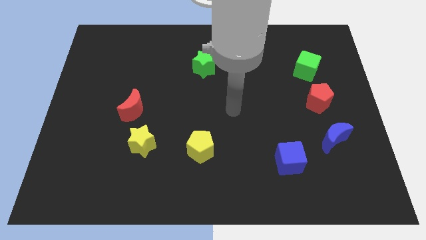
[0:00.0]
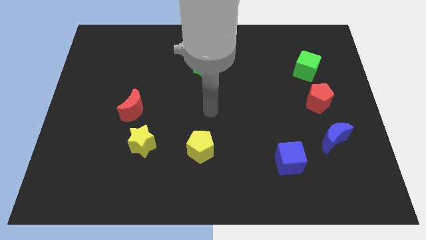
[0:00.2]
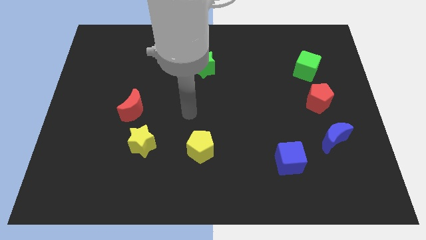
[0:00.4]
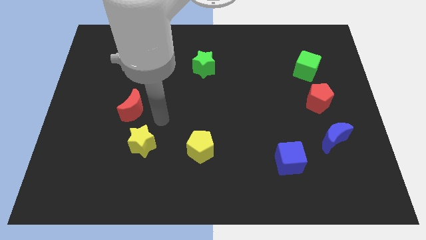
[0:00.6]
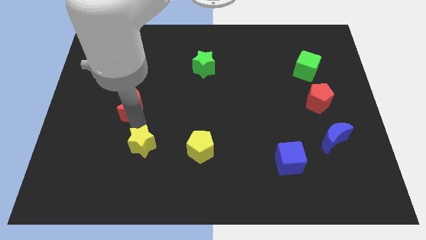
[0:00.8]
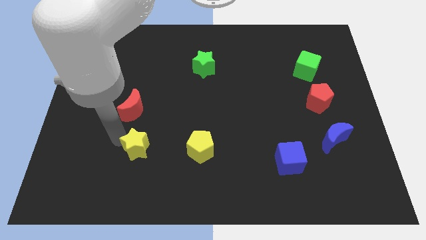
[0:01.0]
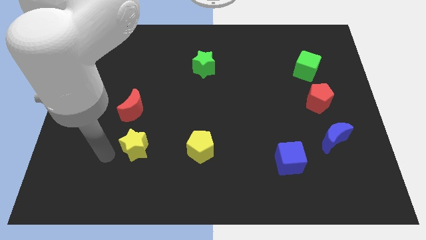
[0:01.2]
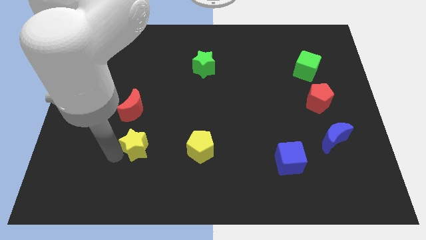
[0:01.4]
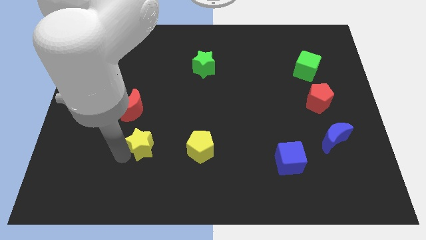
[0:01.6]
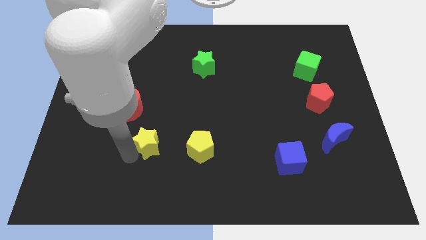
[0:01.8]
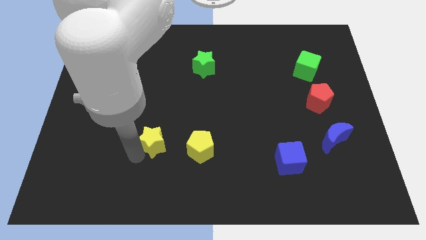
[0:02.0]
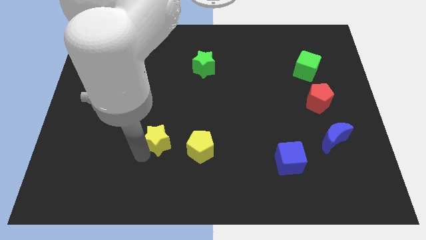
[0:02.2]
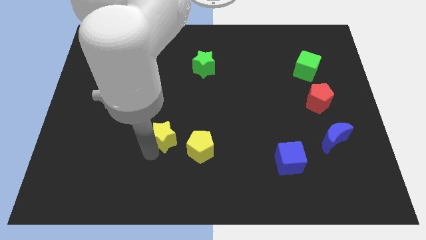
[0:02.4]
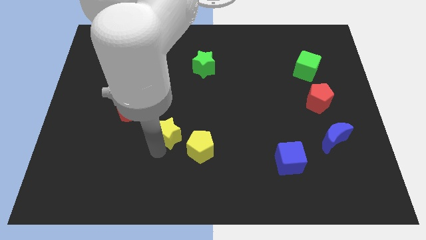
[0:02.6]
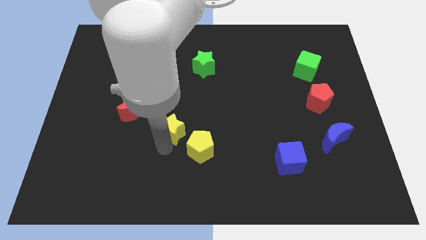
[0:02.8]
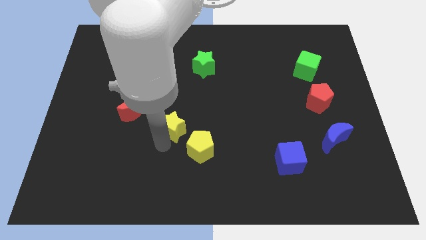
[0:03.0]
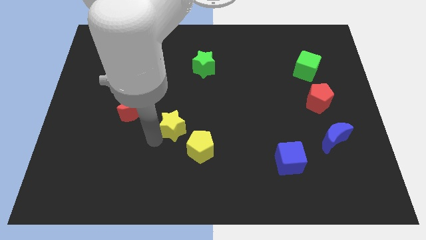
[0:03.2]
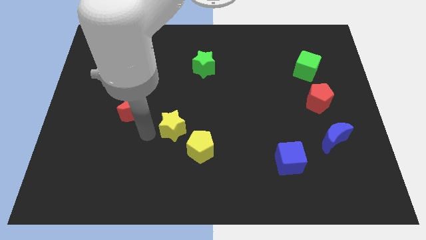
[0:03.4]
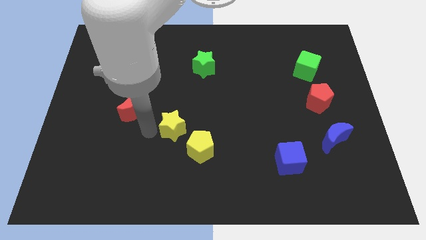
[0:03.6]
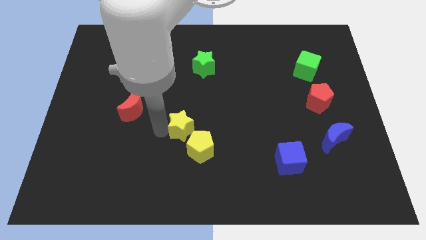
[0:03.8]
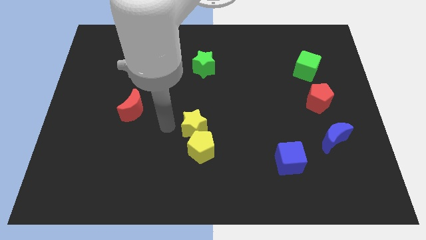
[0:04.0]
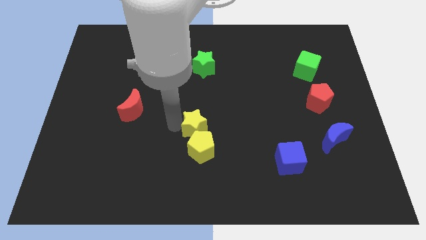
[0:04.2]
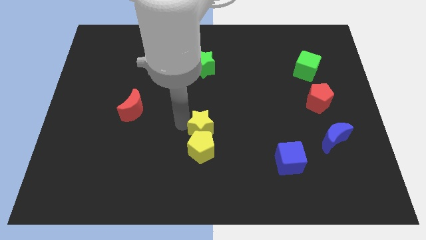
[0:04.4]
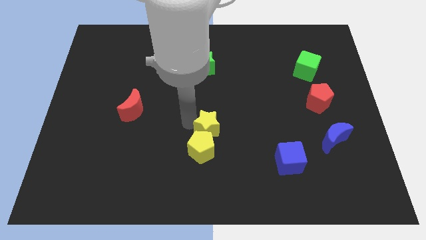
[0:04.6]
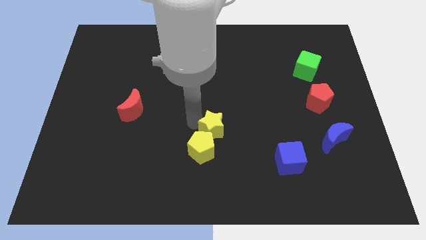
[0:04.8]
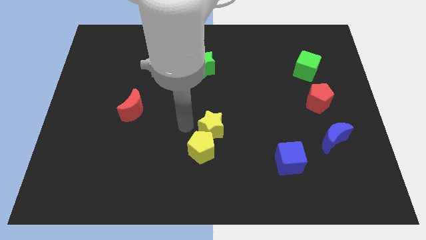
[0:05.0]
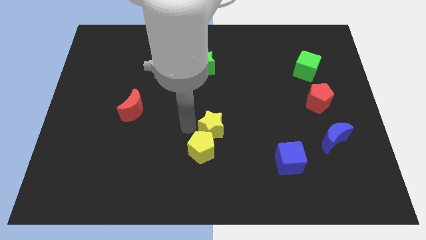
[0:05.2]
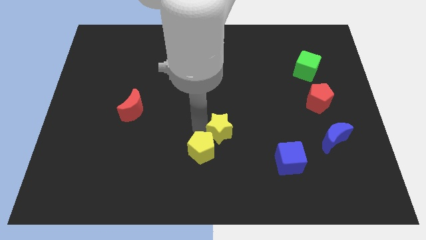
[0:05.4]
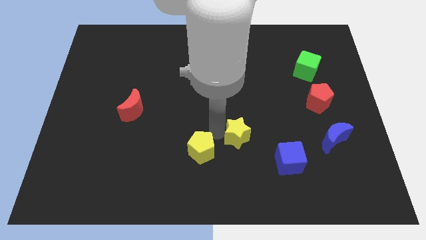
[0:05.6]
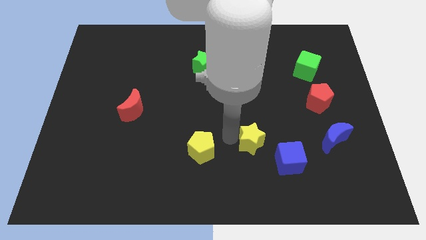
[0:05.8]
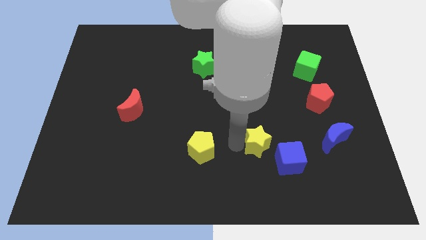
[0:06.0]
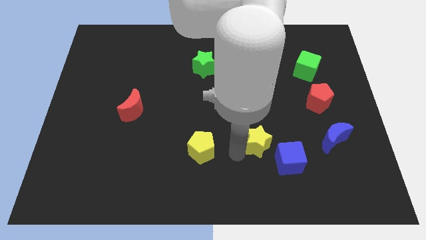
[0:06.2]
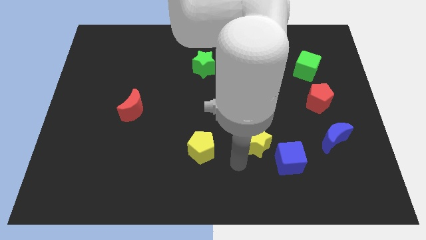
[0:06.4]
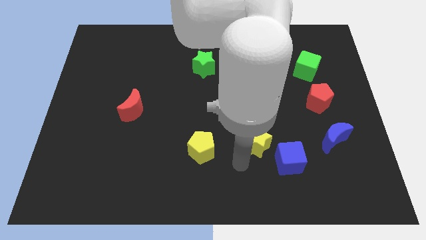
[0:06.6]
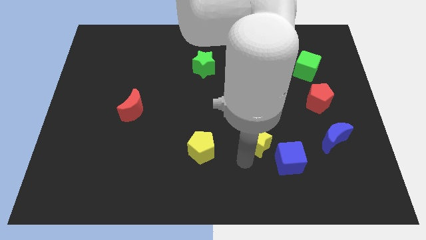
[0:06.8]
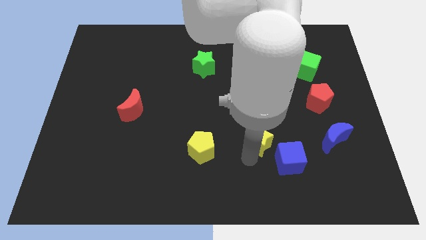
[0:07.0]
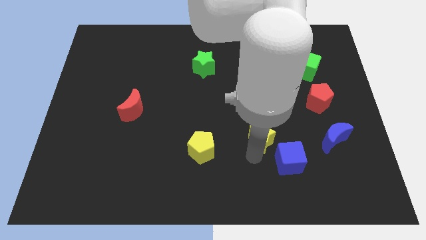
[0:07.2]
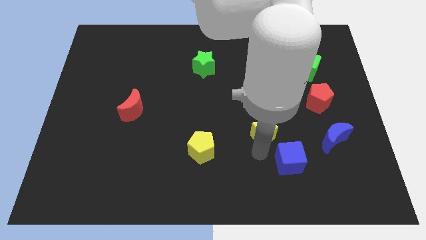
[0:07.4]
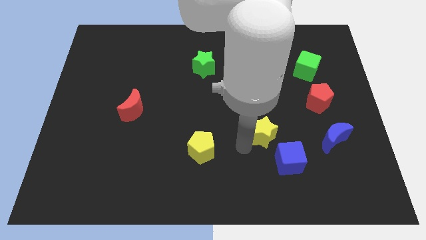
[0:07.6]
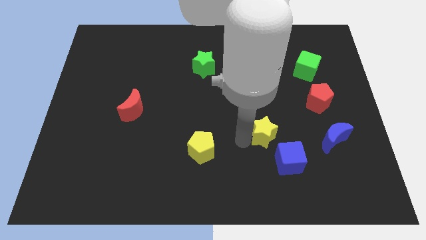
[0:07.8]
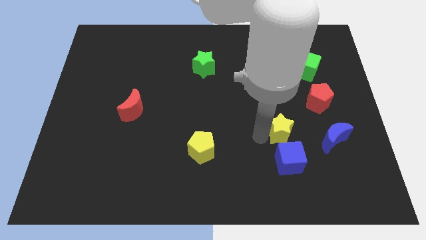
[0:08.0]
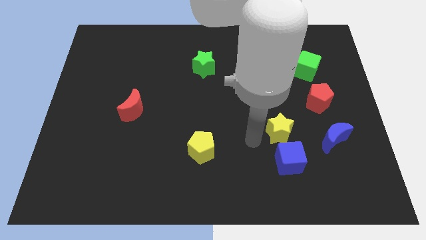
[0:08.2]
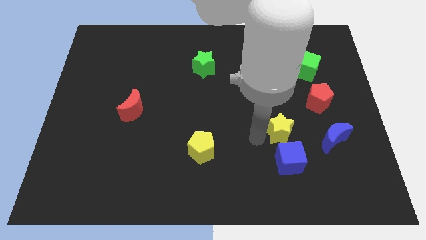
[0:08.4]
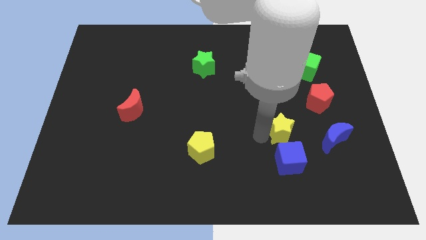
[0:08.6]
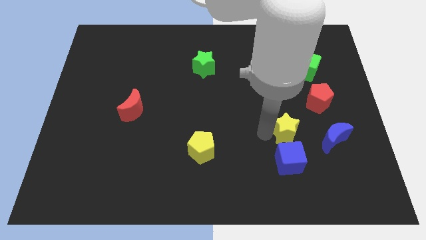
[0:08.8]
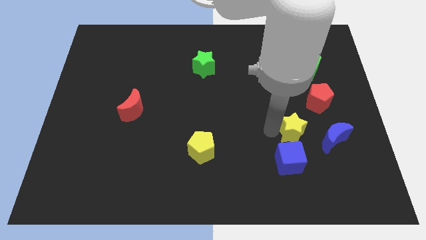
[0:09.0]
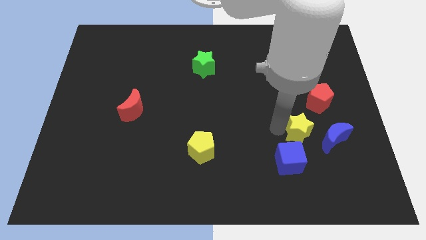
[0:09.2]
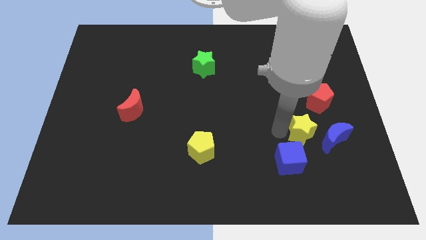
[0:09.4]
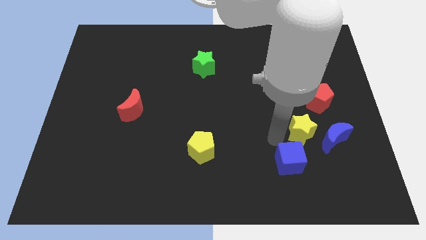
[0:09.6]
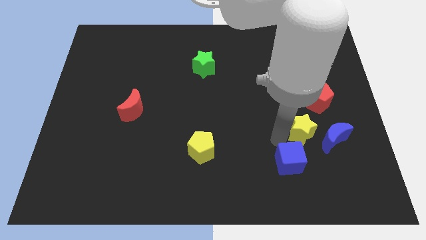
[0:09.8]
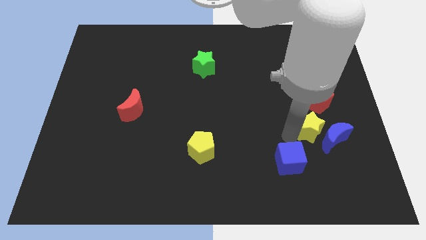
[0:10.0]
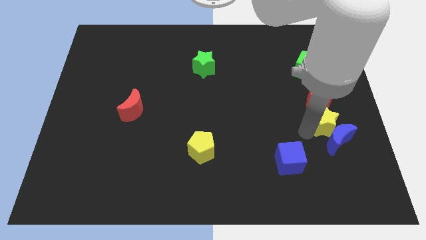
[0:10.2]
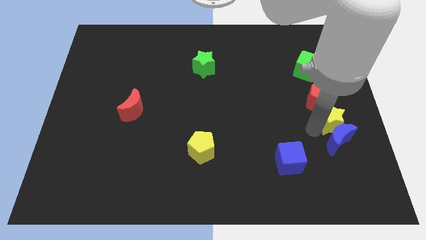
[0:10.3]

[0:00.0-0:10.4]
push the yellow star to the center right

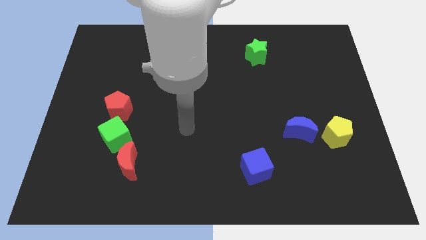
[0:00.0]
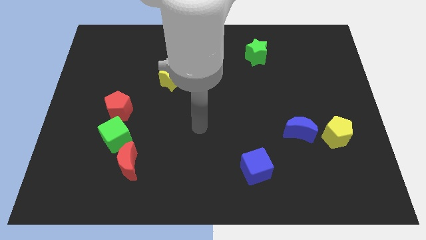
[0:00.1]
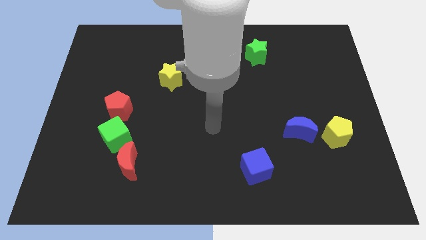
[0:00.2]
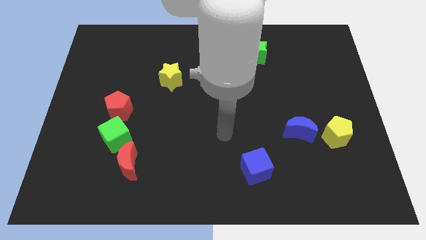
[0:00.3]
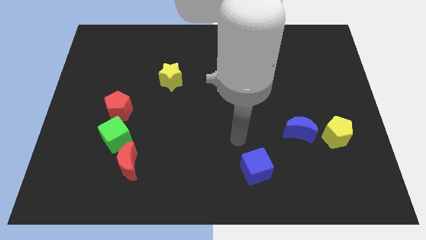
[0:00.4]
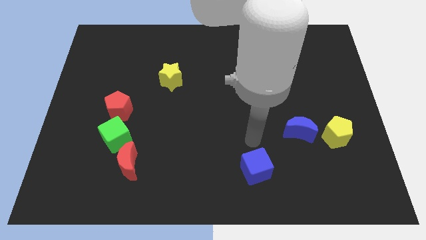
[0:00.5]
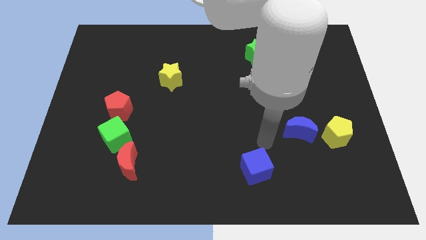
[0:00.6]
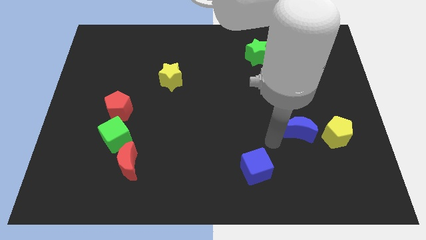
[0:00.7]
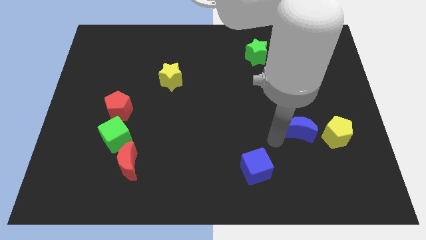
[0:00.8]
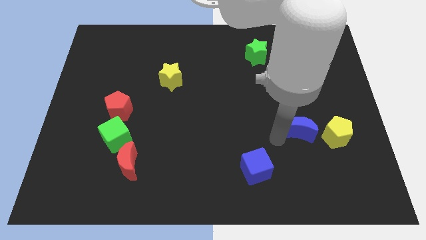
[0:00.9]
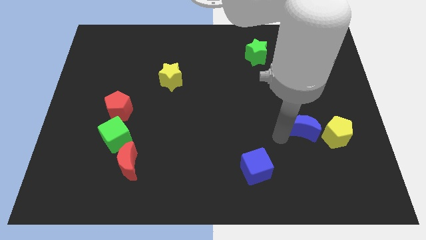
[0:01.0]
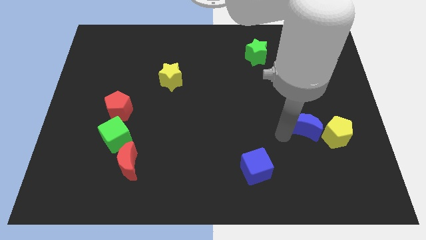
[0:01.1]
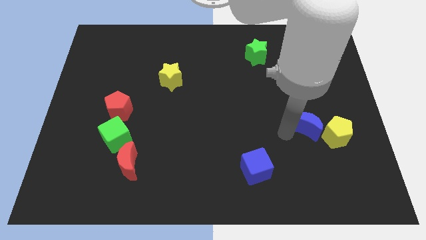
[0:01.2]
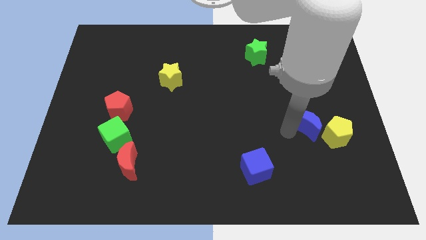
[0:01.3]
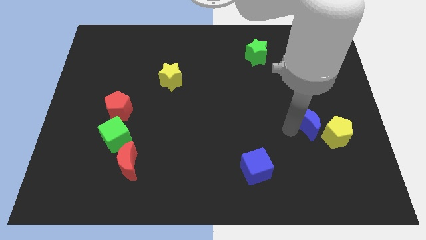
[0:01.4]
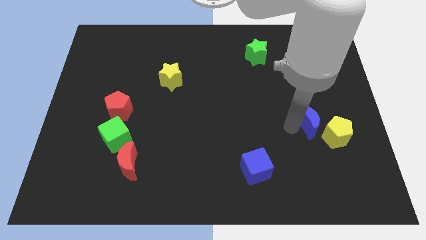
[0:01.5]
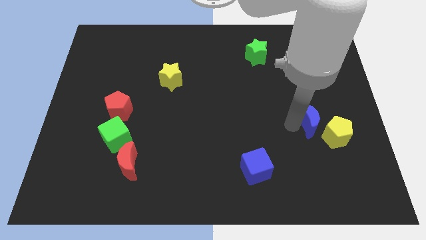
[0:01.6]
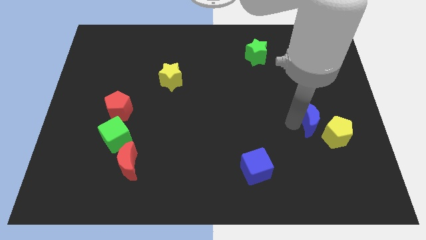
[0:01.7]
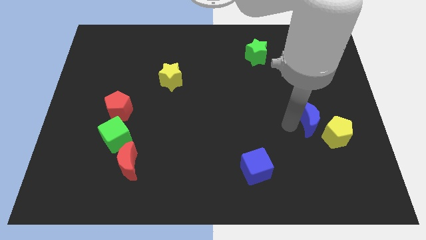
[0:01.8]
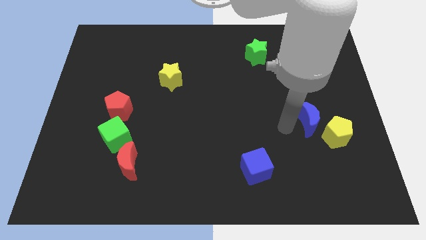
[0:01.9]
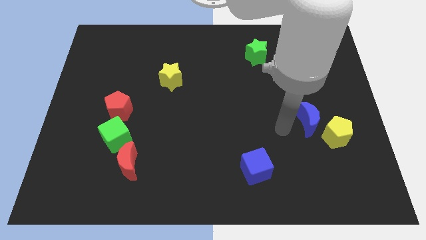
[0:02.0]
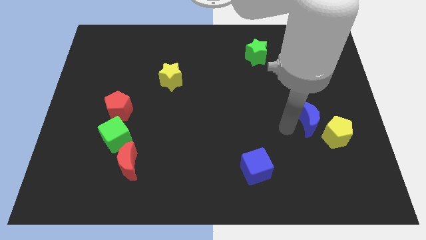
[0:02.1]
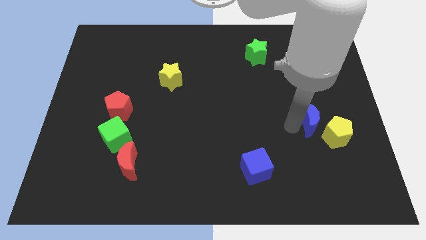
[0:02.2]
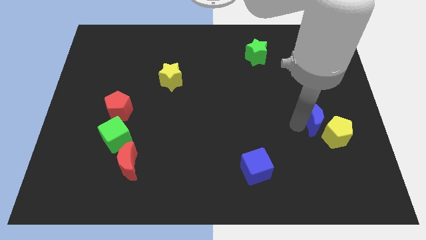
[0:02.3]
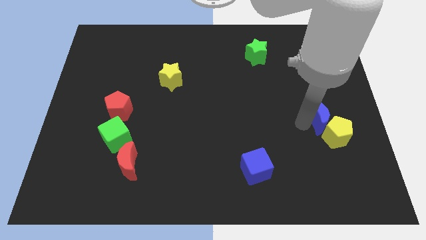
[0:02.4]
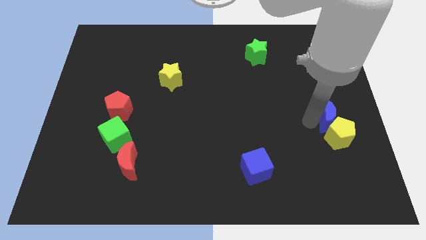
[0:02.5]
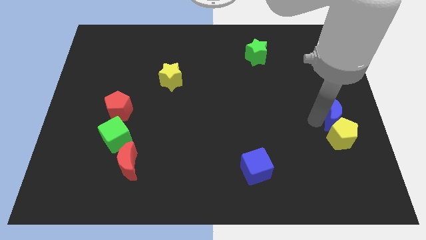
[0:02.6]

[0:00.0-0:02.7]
slide the blue moon to the center right
